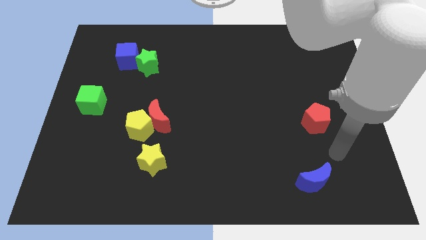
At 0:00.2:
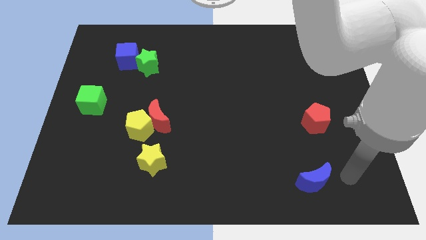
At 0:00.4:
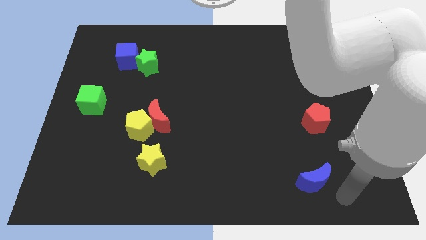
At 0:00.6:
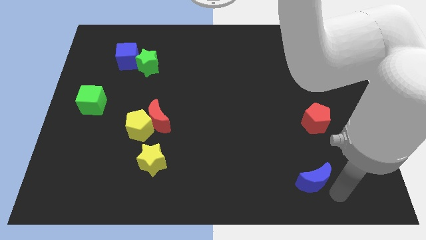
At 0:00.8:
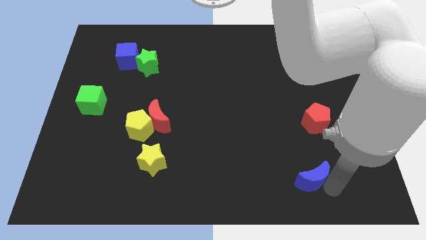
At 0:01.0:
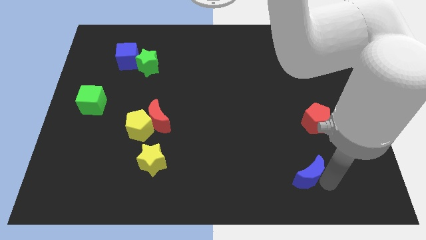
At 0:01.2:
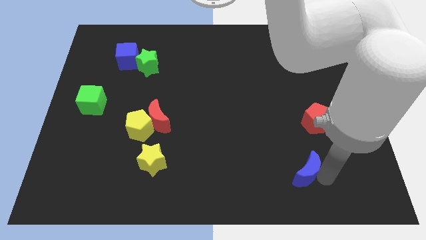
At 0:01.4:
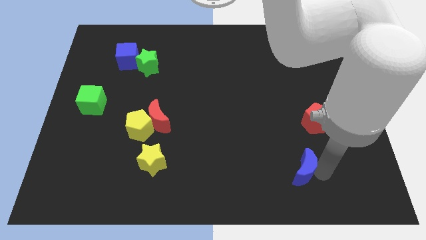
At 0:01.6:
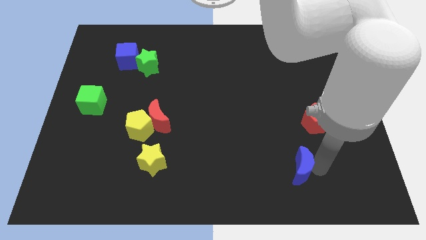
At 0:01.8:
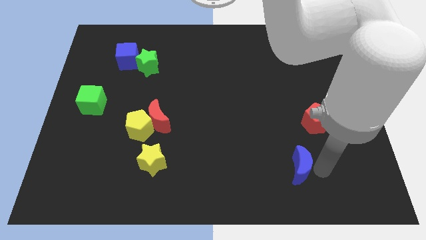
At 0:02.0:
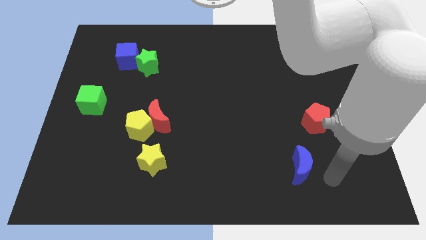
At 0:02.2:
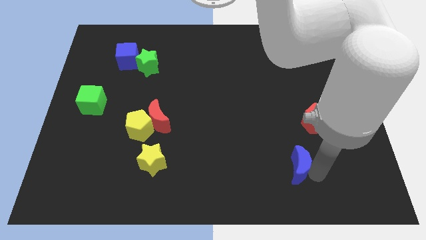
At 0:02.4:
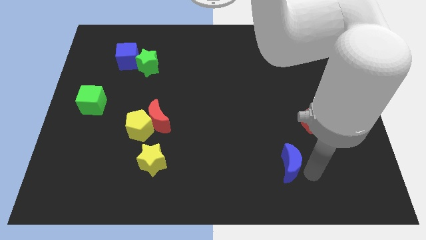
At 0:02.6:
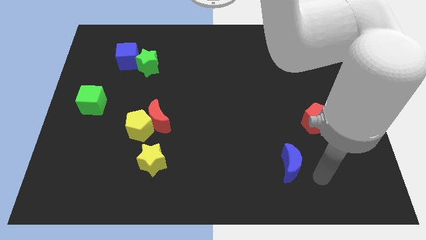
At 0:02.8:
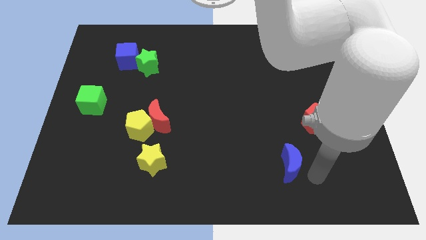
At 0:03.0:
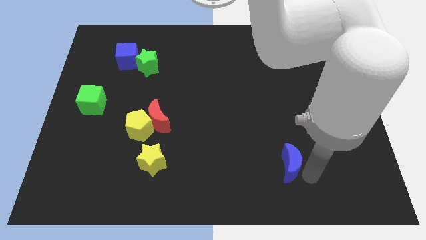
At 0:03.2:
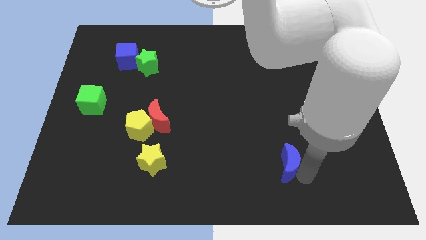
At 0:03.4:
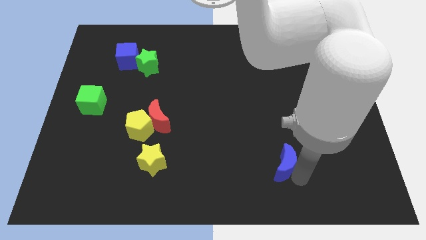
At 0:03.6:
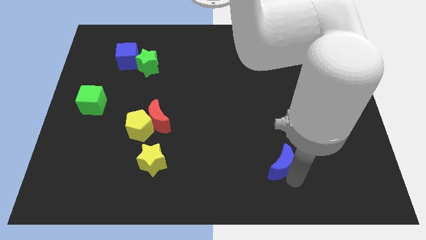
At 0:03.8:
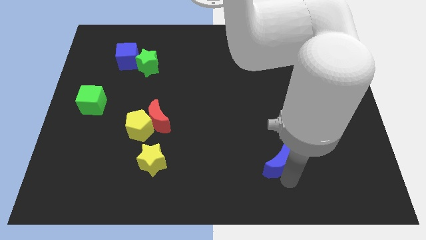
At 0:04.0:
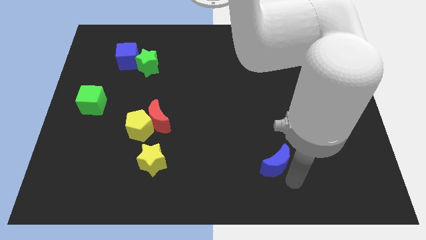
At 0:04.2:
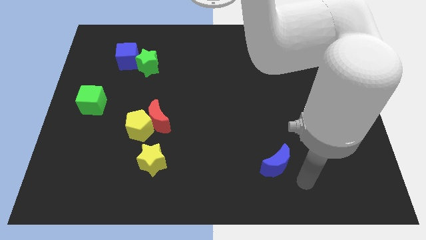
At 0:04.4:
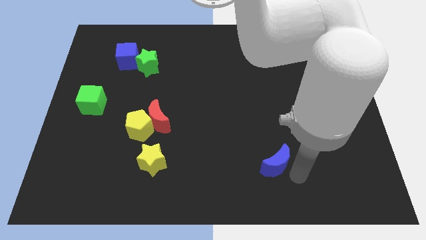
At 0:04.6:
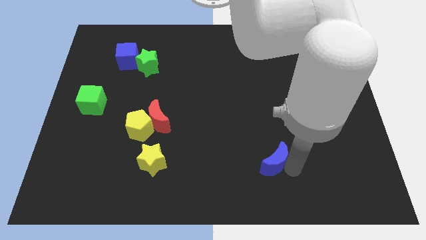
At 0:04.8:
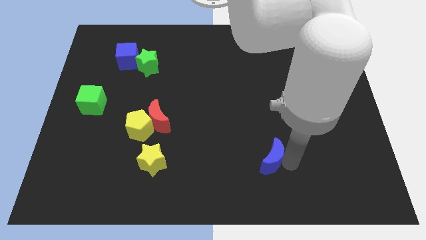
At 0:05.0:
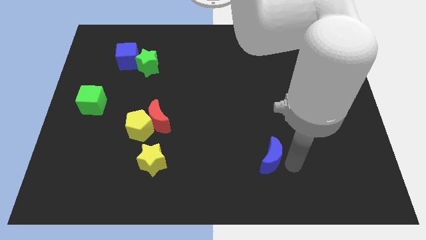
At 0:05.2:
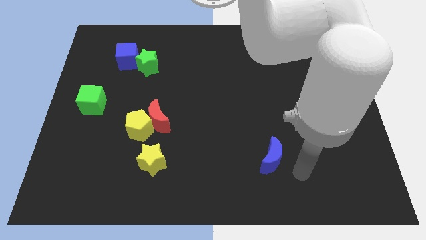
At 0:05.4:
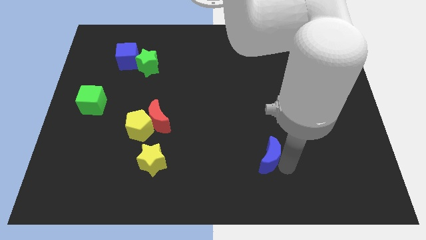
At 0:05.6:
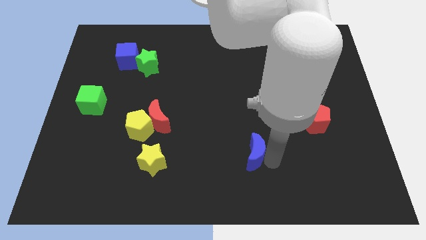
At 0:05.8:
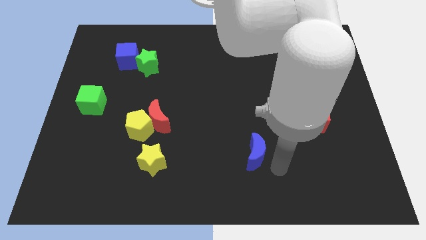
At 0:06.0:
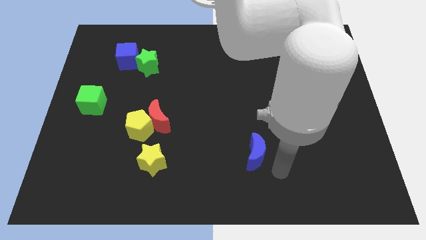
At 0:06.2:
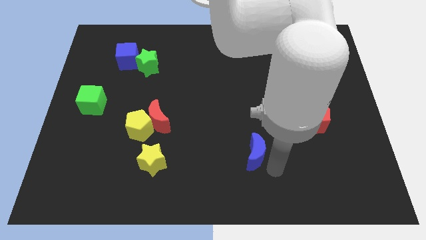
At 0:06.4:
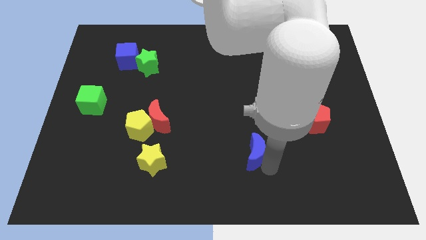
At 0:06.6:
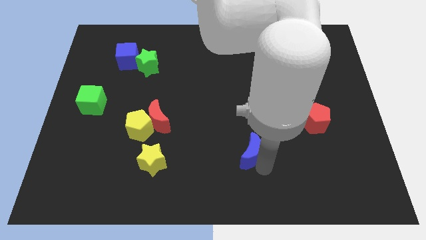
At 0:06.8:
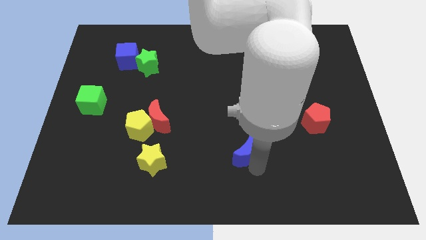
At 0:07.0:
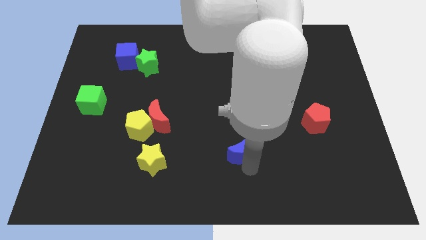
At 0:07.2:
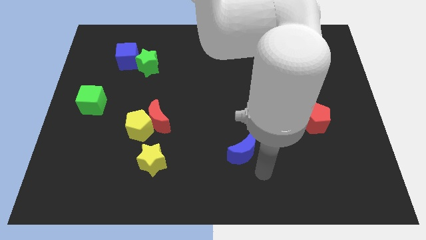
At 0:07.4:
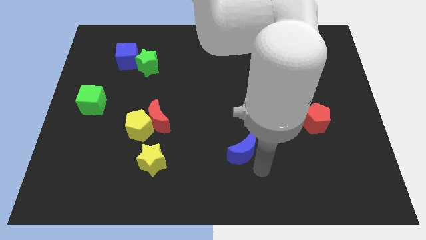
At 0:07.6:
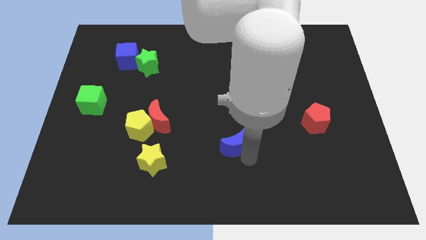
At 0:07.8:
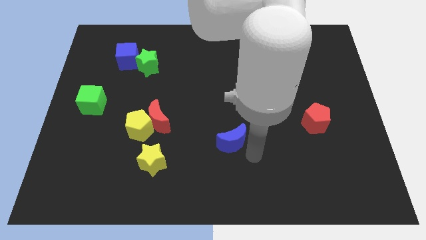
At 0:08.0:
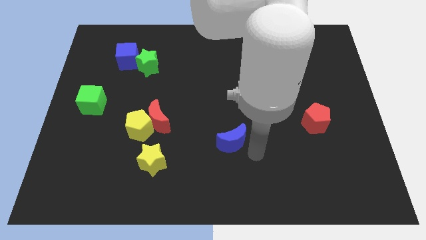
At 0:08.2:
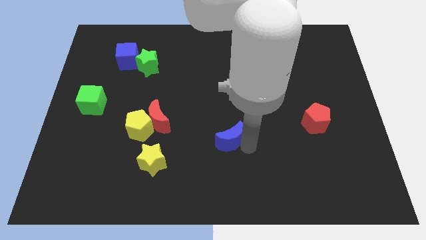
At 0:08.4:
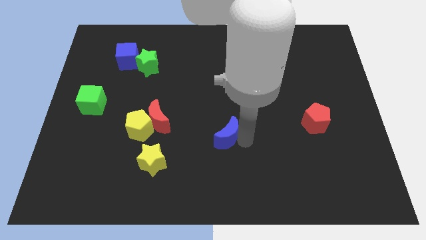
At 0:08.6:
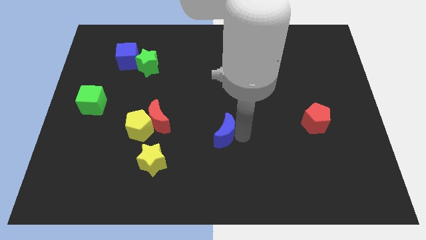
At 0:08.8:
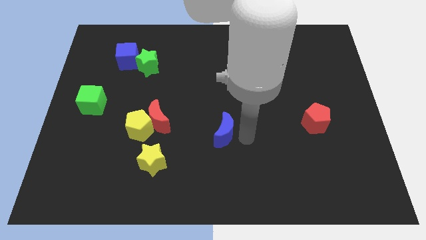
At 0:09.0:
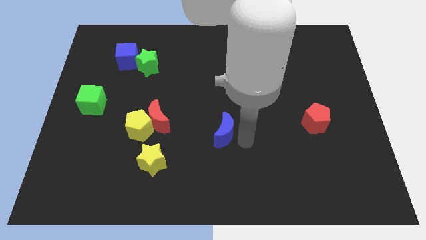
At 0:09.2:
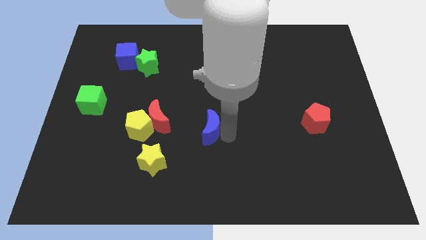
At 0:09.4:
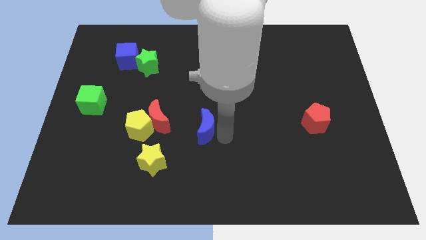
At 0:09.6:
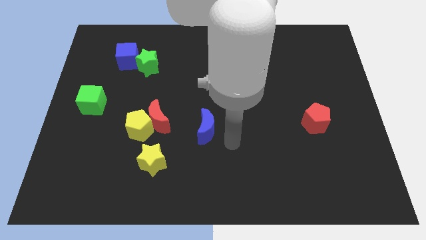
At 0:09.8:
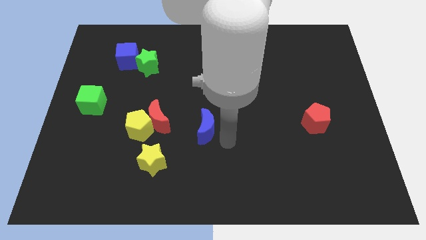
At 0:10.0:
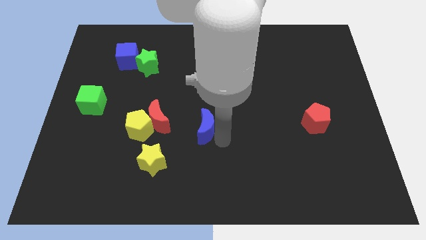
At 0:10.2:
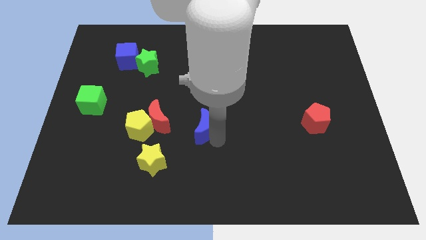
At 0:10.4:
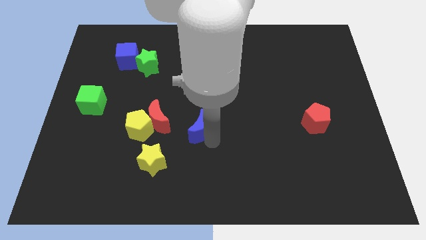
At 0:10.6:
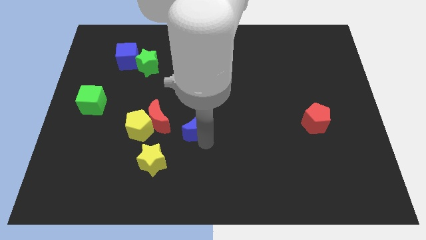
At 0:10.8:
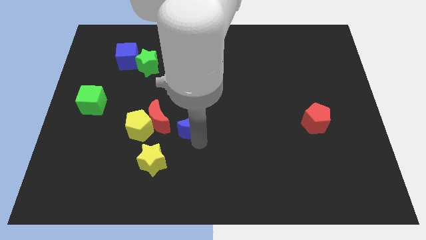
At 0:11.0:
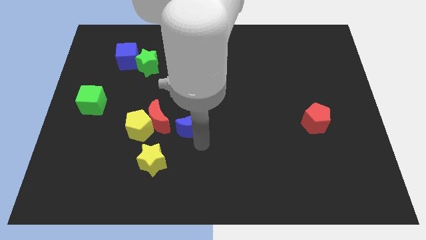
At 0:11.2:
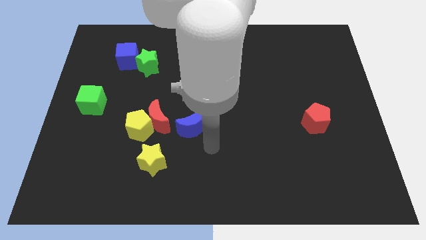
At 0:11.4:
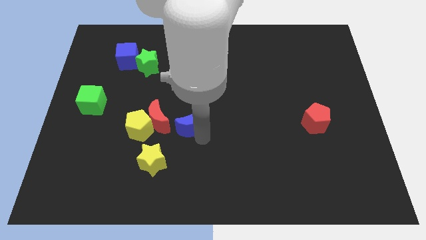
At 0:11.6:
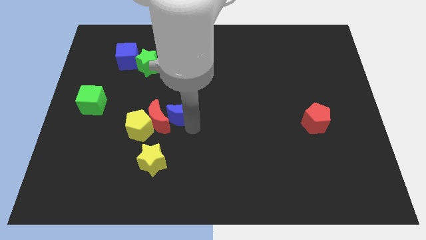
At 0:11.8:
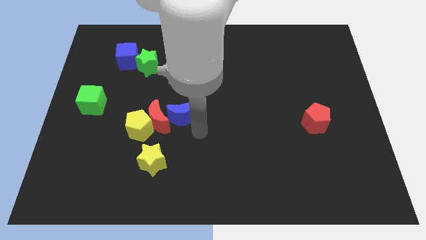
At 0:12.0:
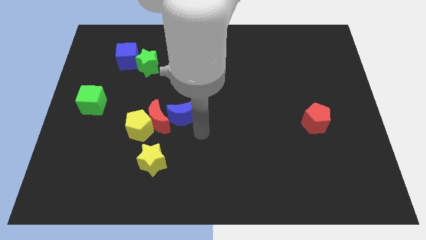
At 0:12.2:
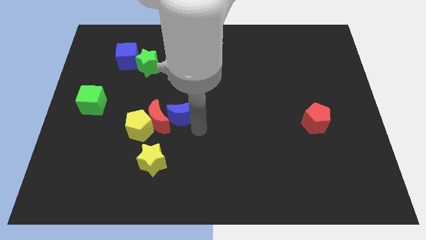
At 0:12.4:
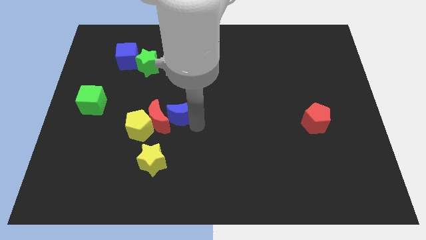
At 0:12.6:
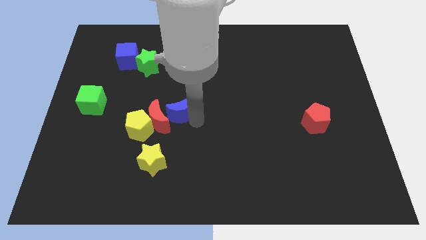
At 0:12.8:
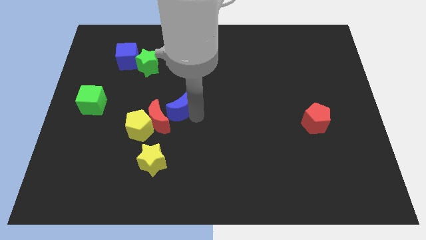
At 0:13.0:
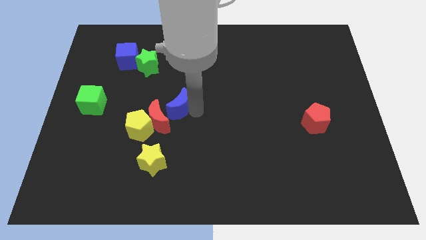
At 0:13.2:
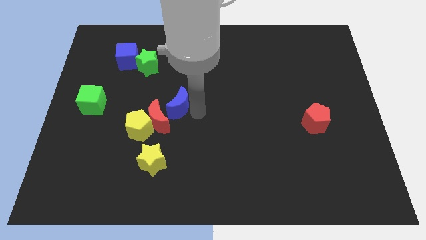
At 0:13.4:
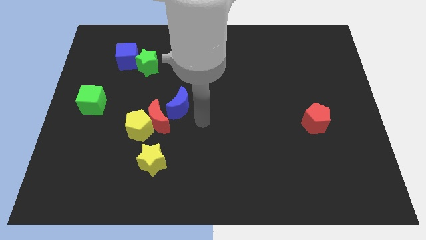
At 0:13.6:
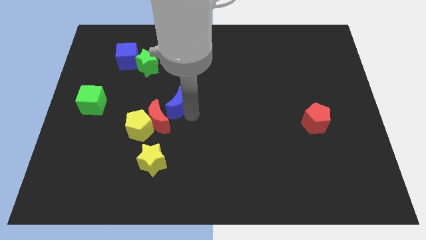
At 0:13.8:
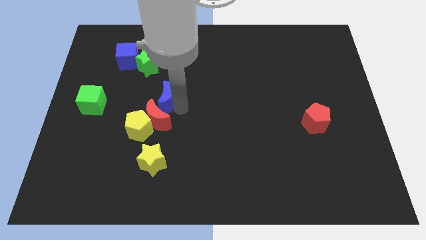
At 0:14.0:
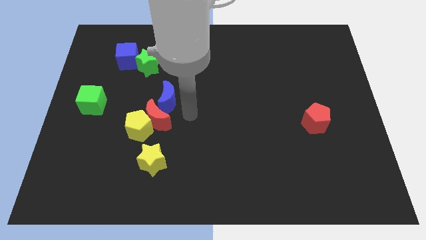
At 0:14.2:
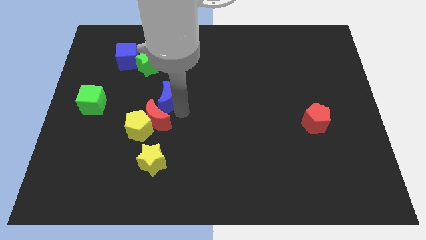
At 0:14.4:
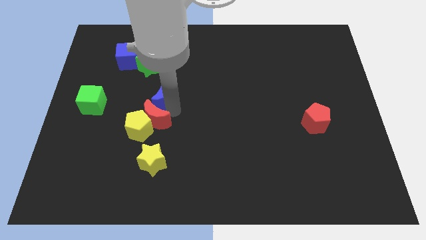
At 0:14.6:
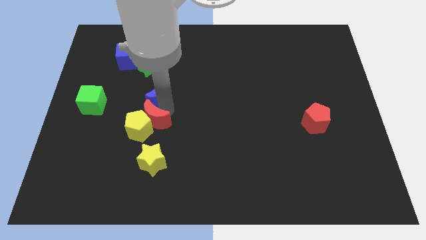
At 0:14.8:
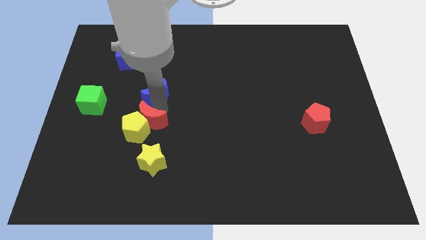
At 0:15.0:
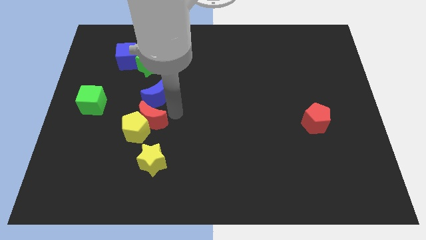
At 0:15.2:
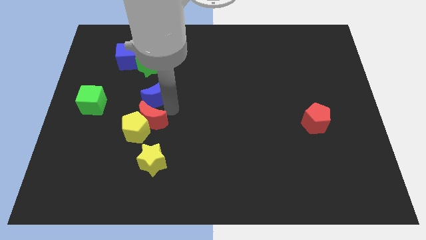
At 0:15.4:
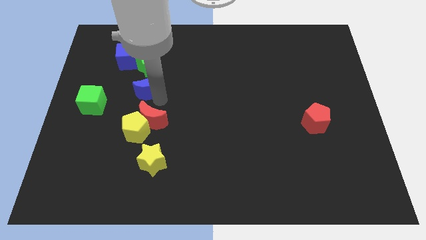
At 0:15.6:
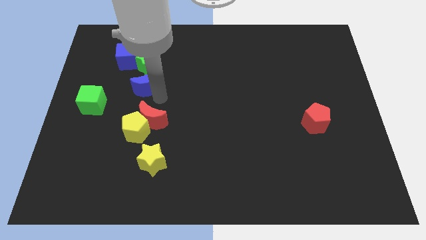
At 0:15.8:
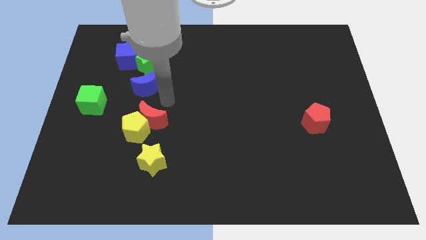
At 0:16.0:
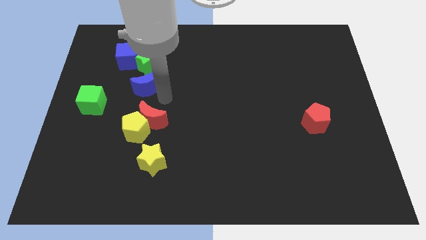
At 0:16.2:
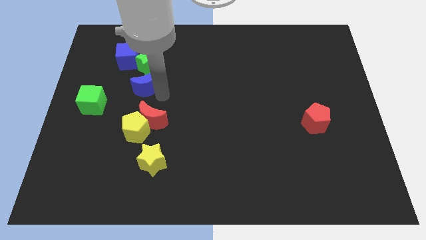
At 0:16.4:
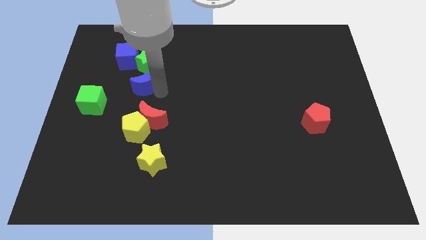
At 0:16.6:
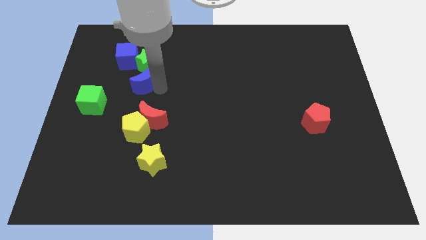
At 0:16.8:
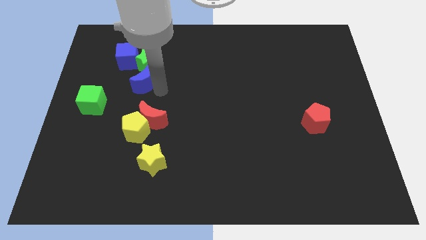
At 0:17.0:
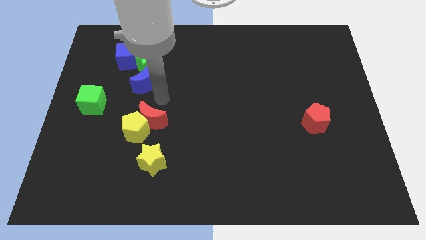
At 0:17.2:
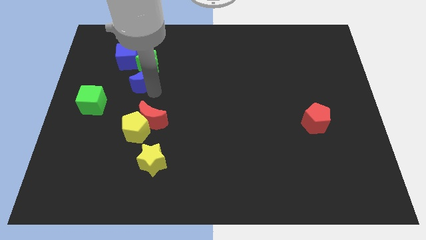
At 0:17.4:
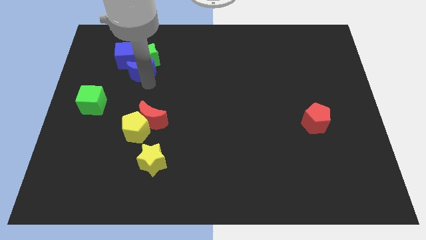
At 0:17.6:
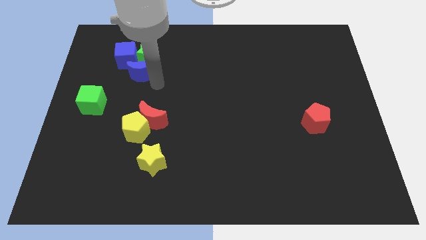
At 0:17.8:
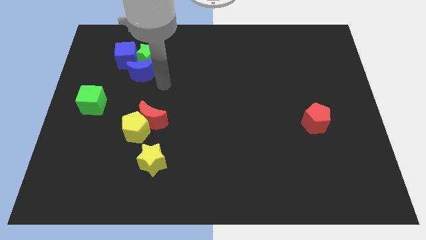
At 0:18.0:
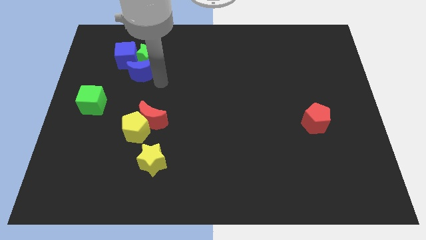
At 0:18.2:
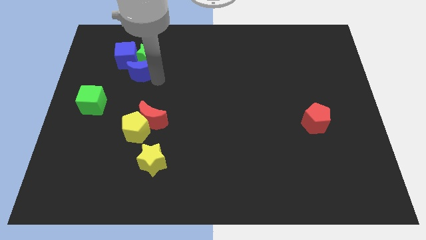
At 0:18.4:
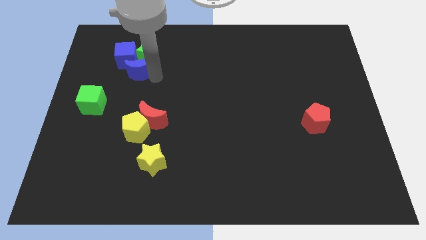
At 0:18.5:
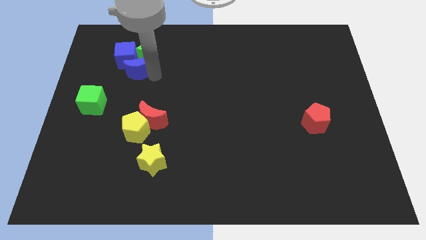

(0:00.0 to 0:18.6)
move the blue moon next to the blue cube
